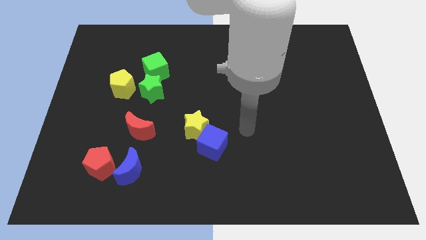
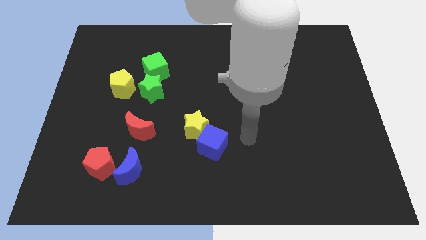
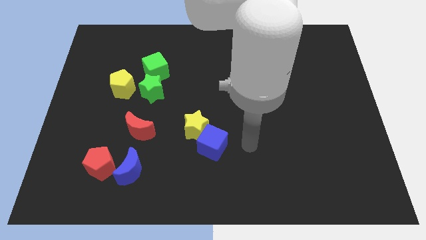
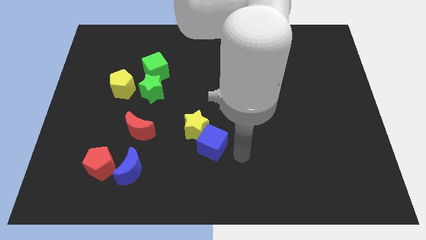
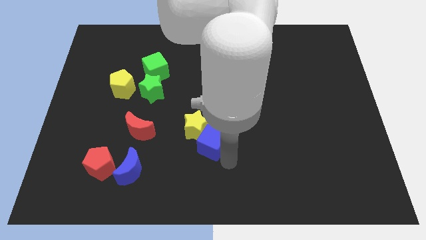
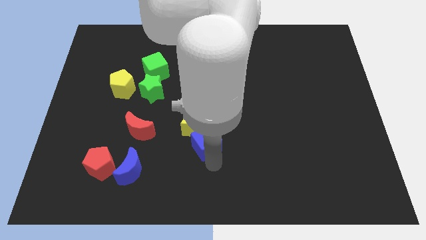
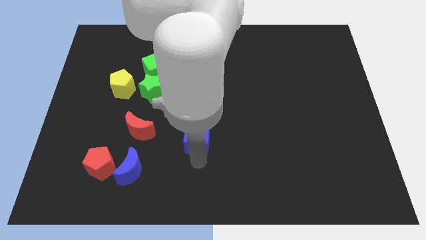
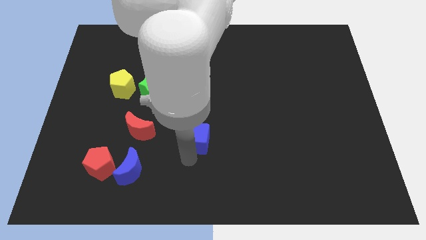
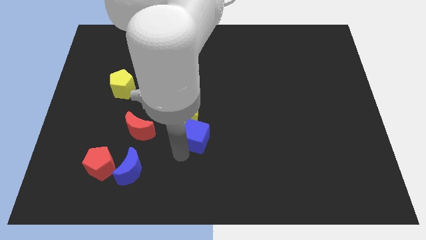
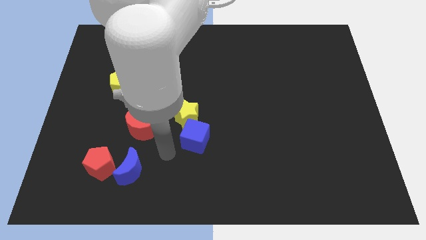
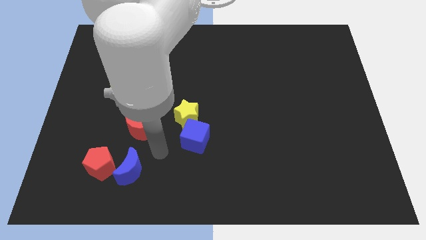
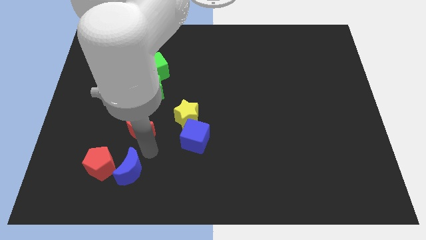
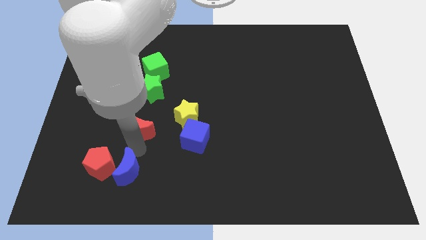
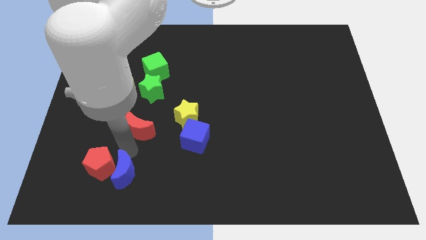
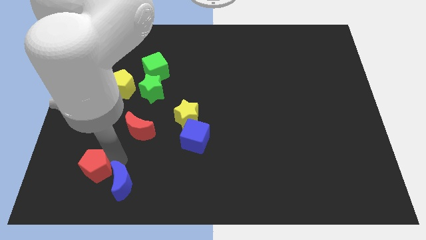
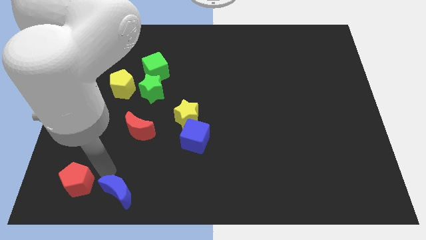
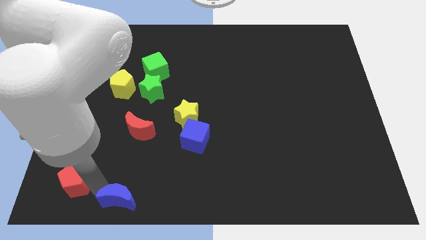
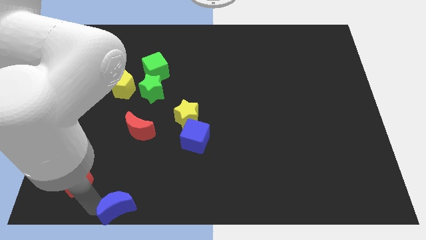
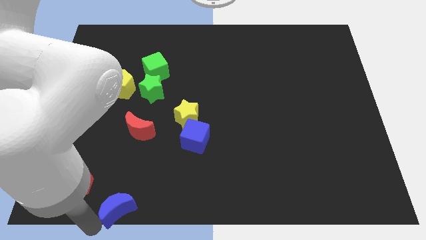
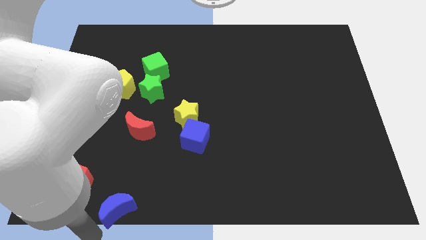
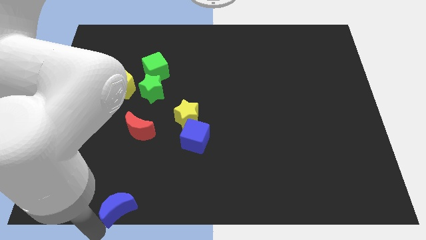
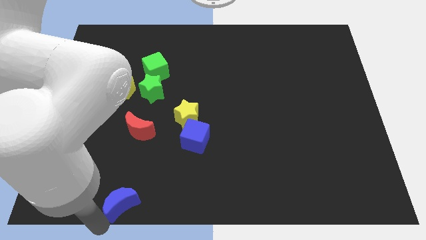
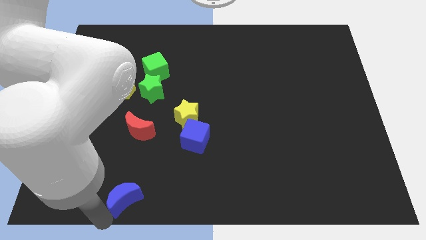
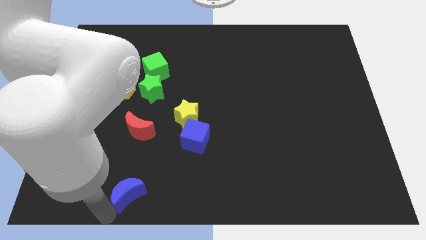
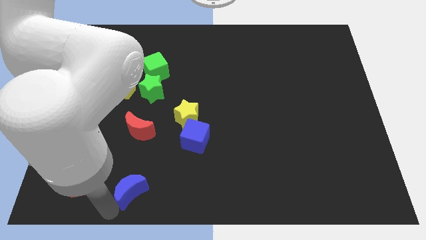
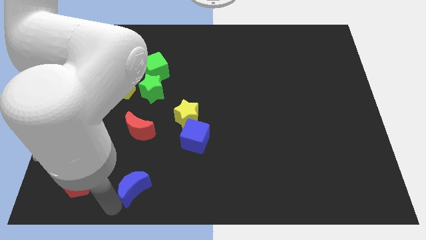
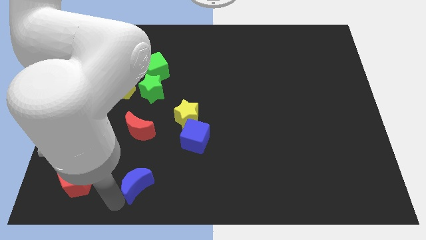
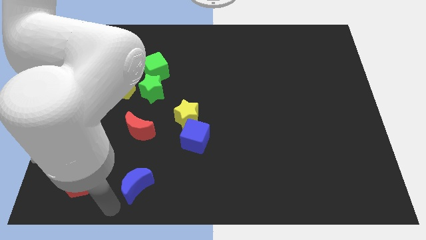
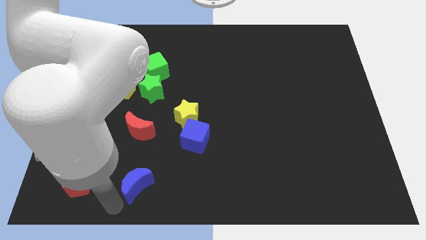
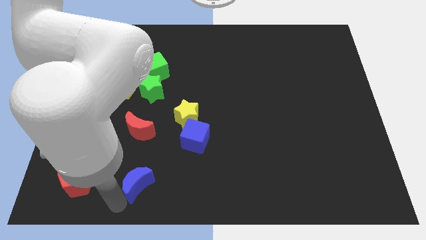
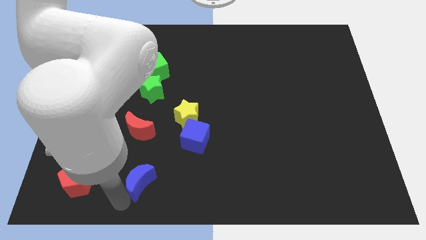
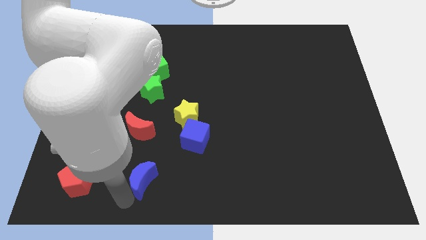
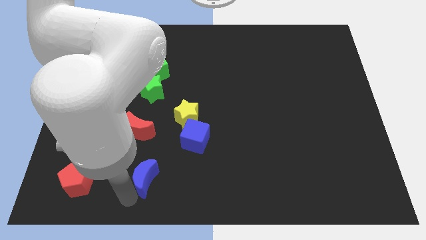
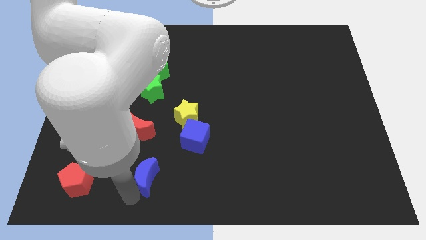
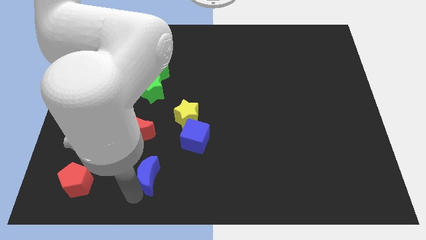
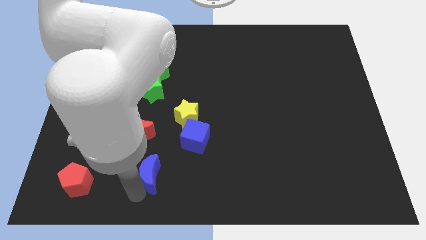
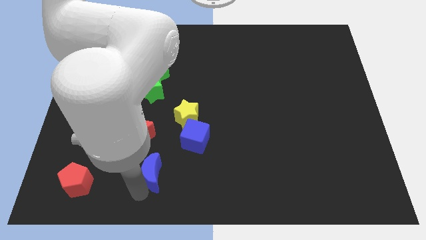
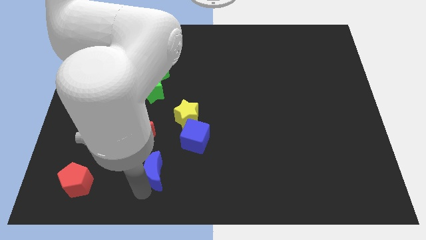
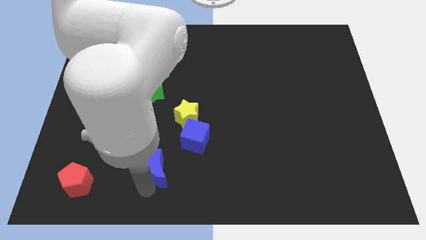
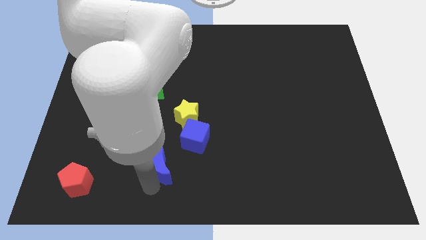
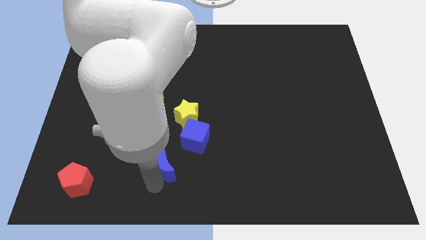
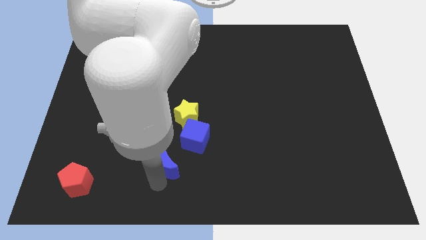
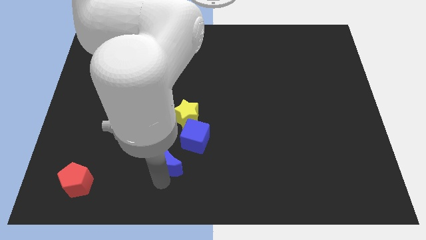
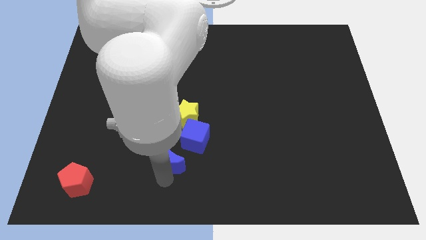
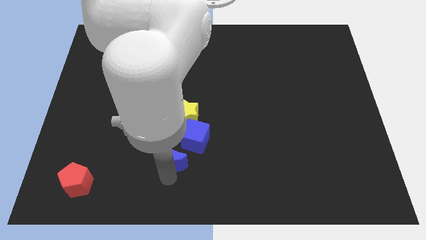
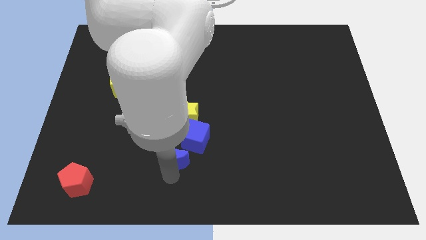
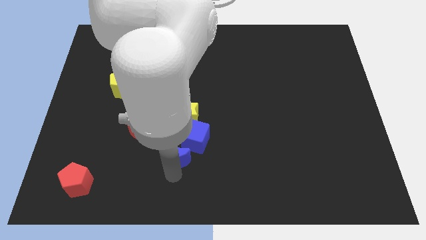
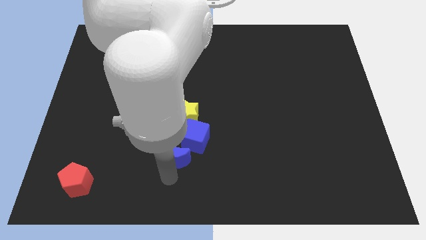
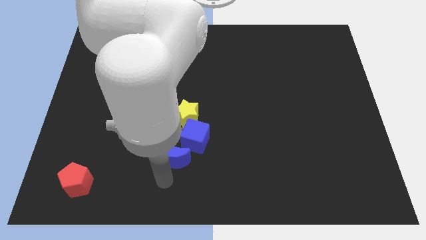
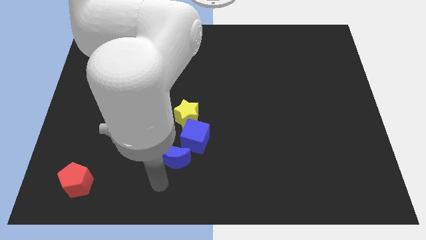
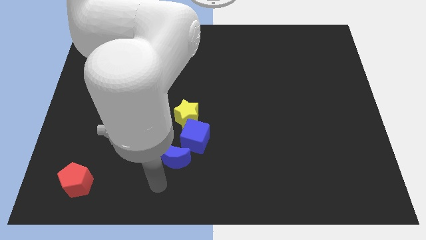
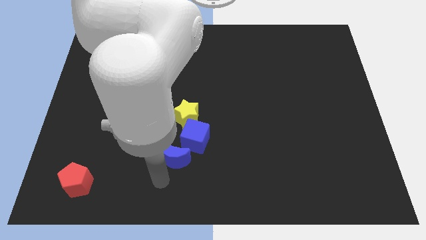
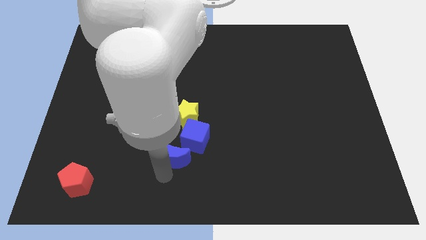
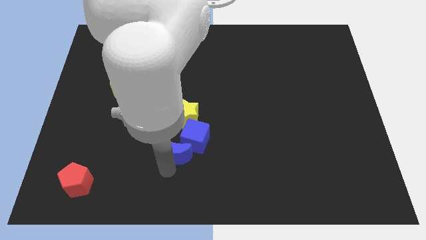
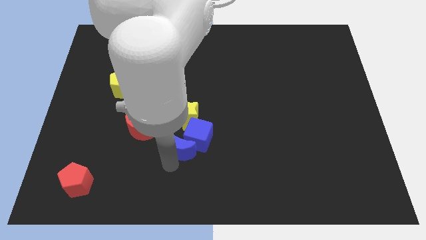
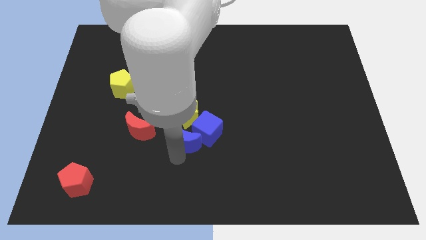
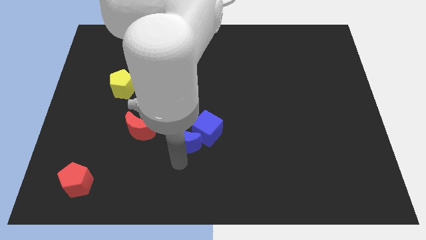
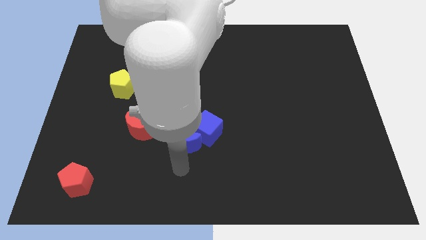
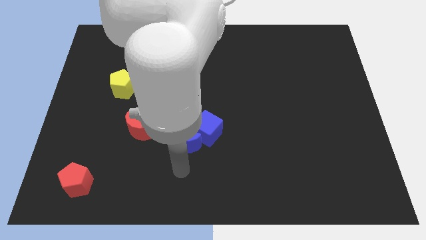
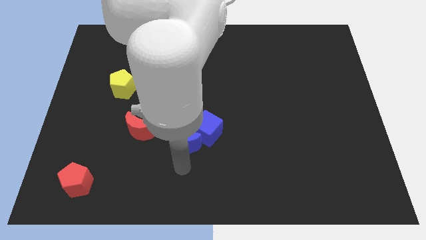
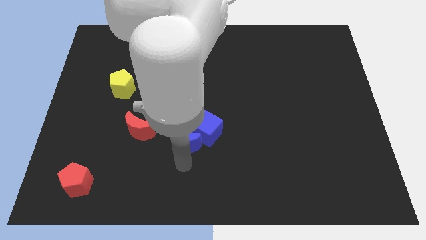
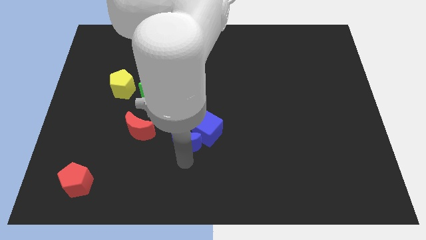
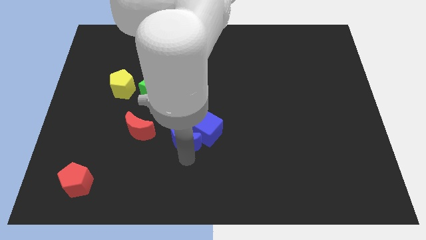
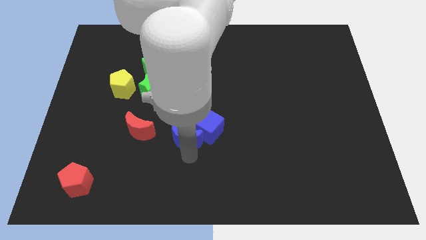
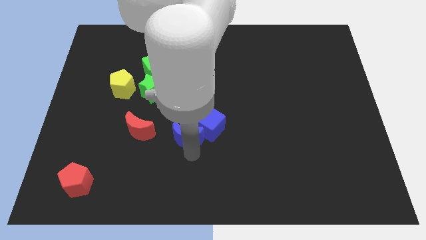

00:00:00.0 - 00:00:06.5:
push the blue moon close to the yellow star

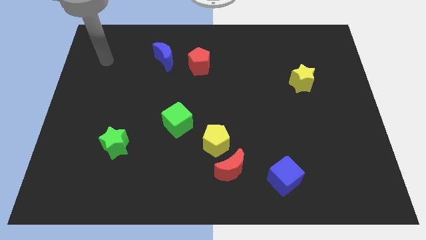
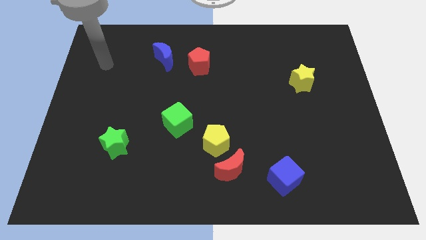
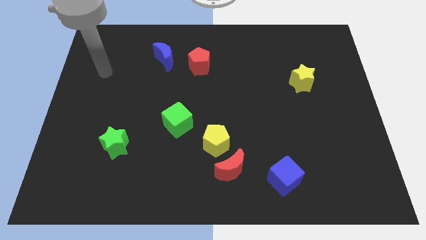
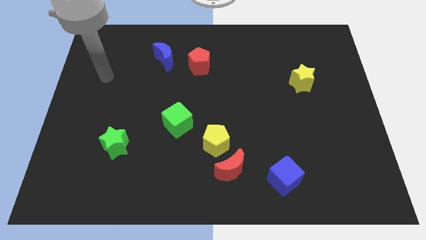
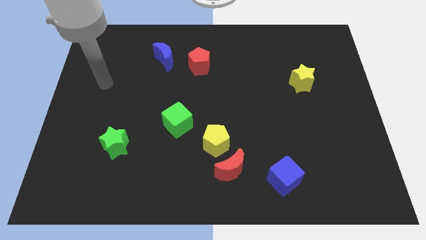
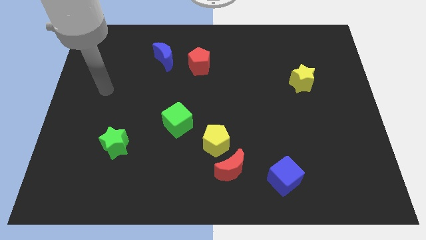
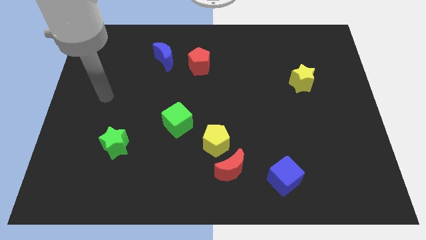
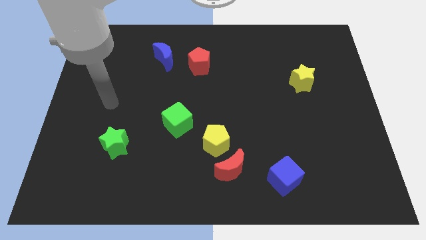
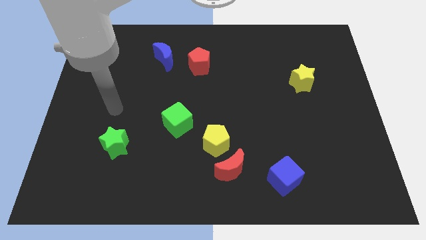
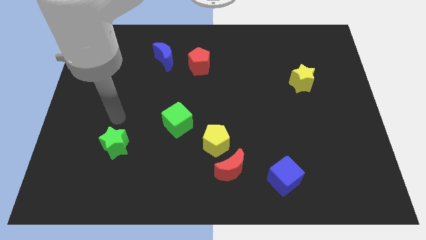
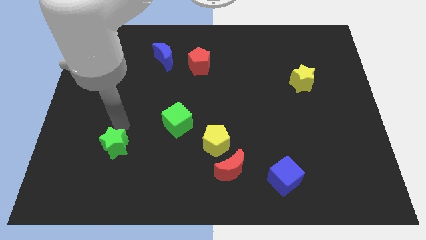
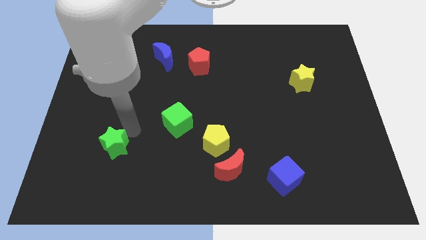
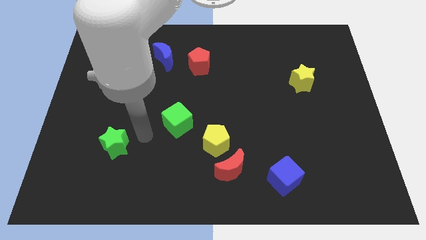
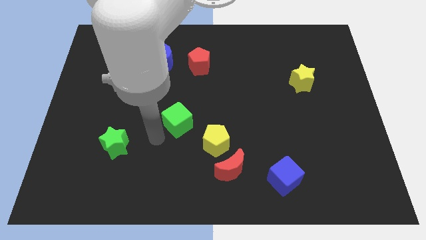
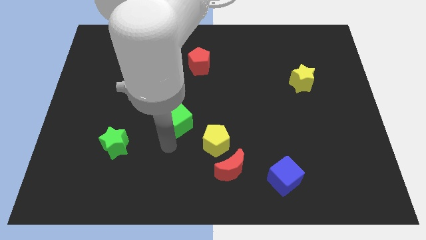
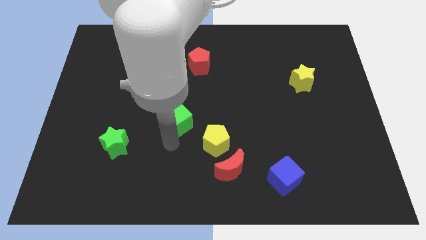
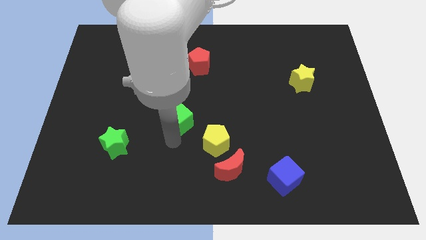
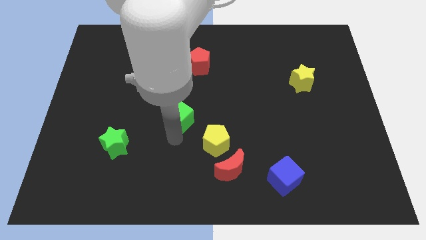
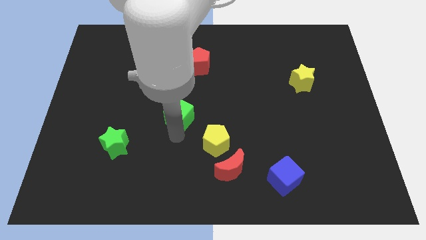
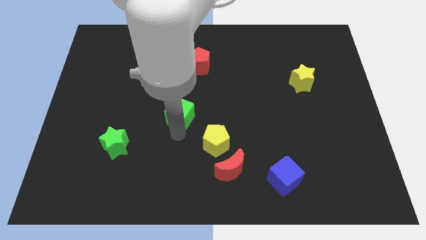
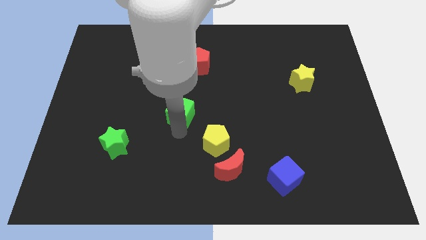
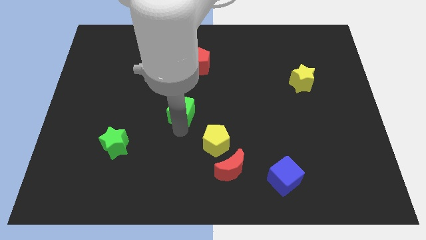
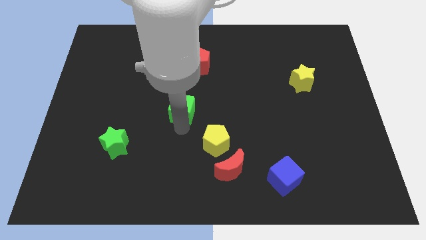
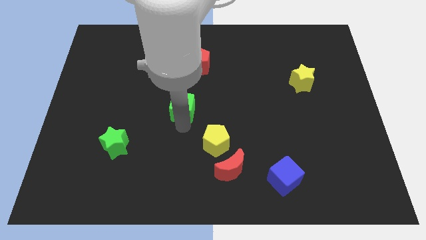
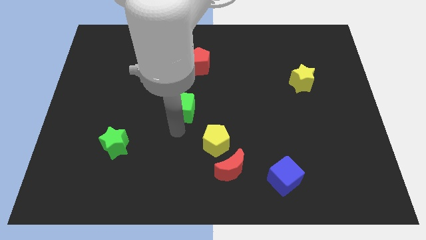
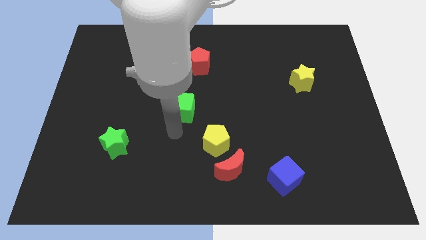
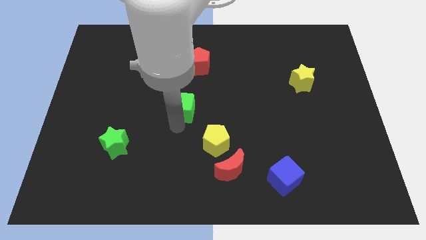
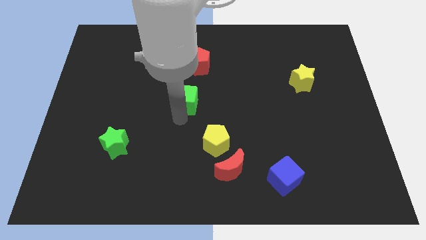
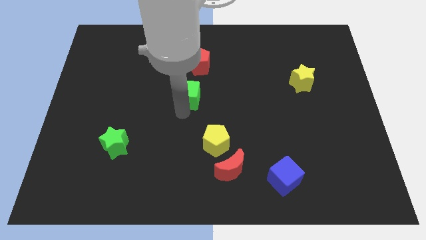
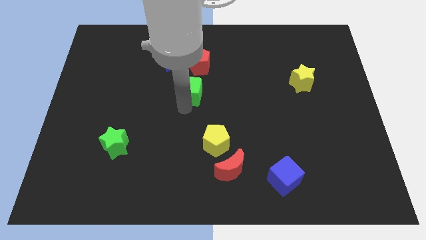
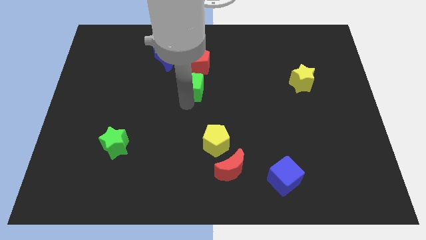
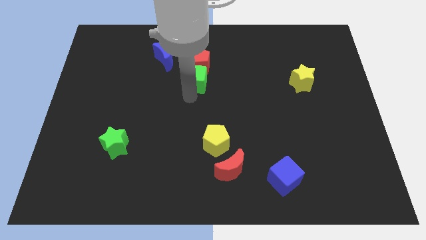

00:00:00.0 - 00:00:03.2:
move the green cube towards the red pentagon
